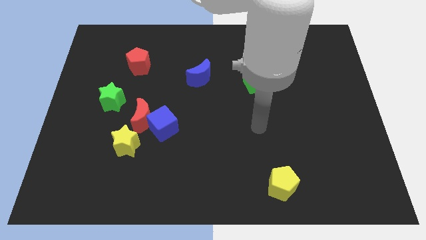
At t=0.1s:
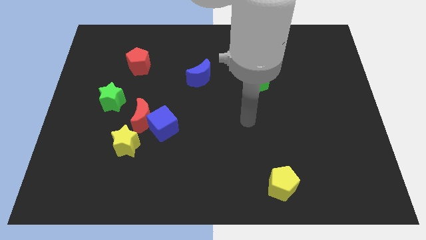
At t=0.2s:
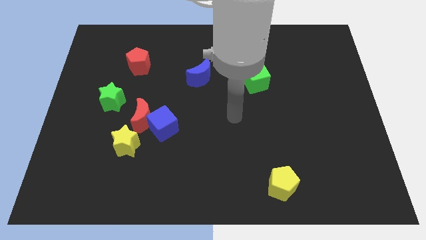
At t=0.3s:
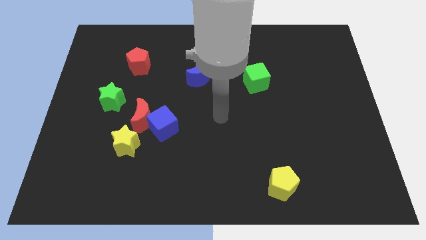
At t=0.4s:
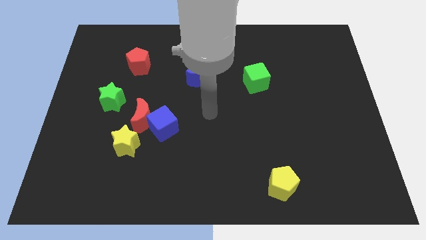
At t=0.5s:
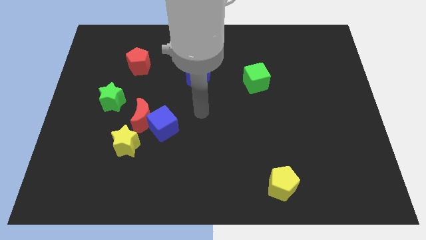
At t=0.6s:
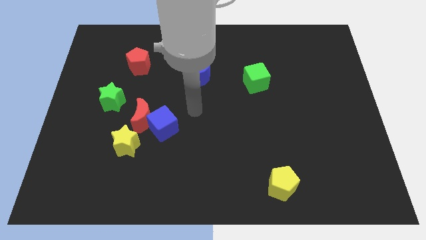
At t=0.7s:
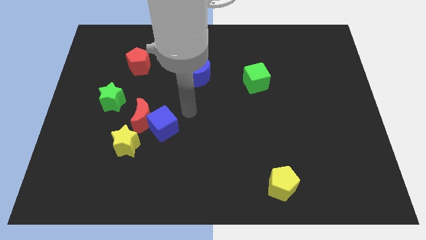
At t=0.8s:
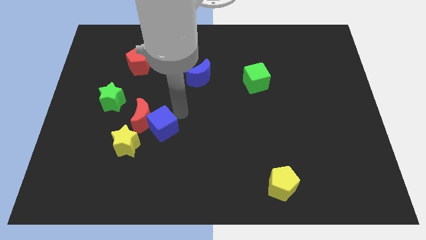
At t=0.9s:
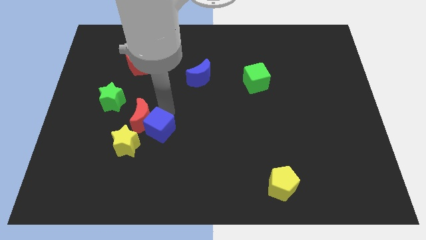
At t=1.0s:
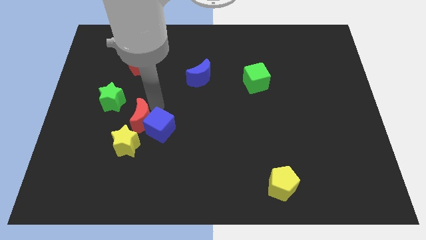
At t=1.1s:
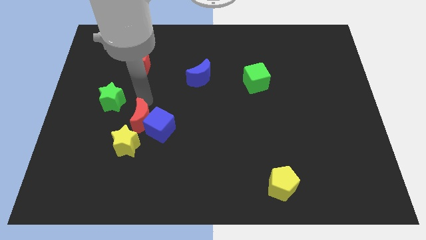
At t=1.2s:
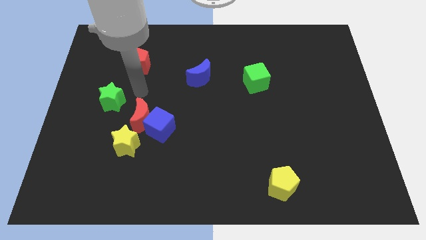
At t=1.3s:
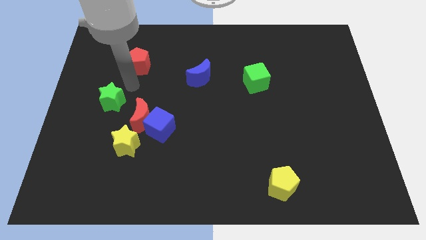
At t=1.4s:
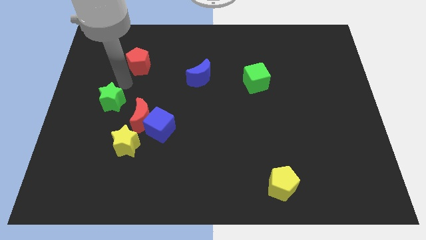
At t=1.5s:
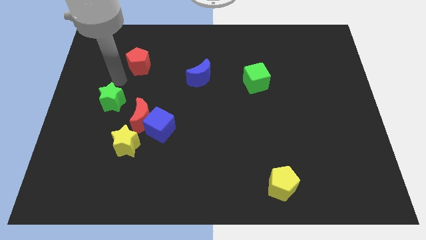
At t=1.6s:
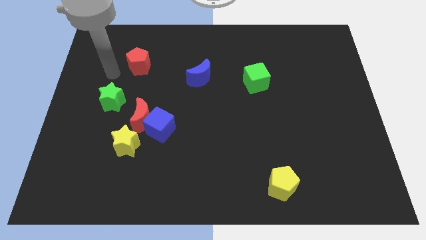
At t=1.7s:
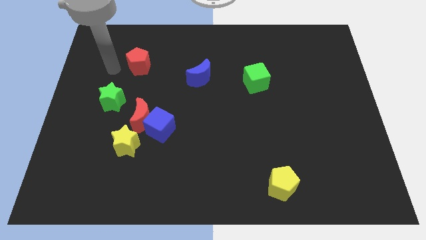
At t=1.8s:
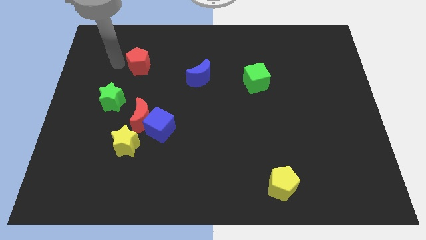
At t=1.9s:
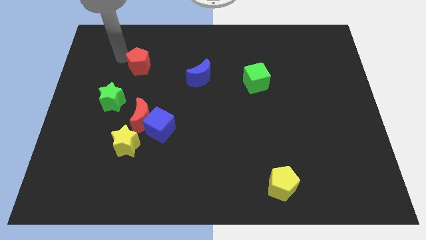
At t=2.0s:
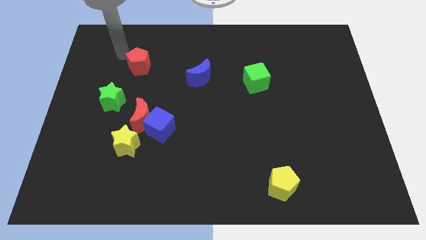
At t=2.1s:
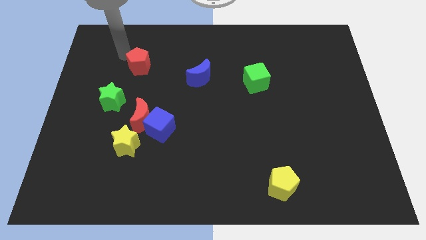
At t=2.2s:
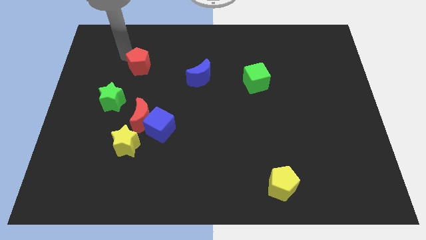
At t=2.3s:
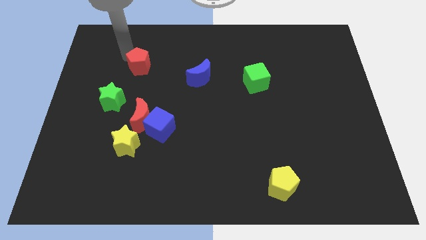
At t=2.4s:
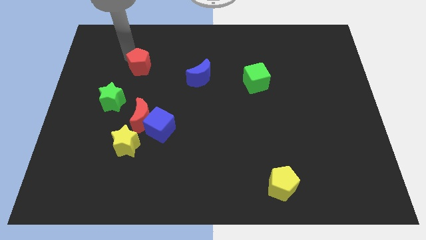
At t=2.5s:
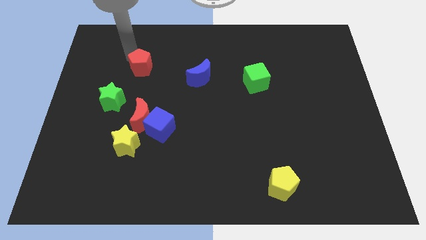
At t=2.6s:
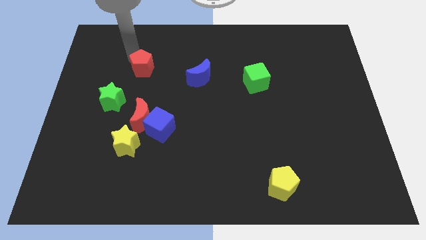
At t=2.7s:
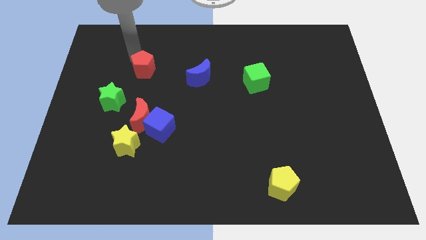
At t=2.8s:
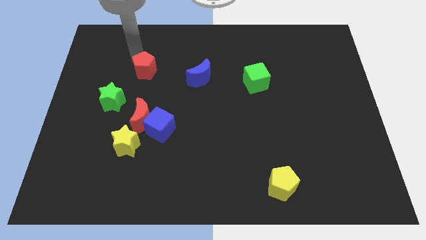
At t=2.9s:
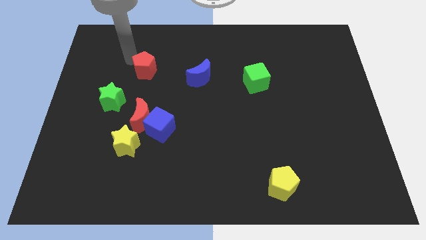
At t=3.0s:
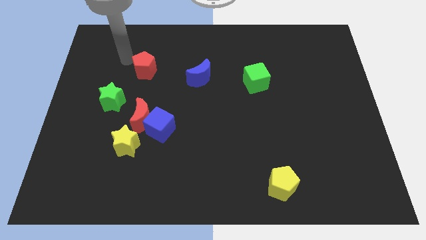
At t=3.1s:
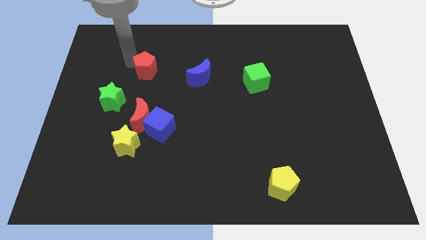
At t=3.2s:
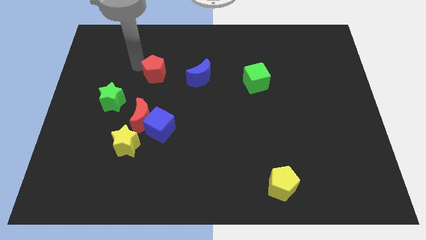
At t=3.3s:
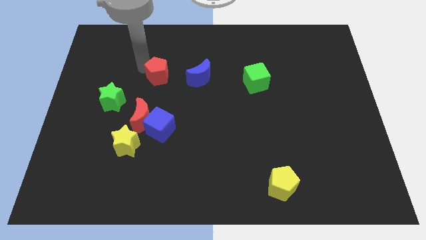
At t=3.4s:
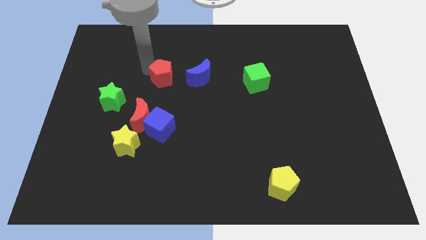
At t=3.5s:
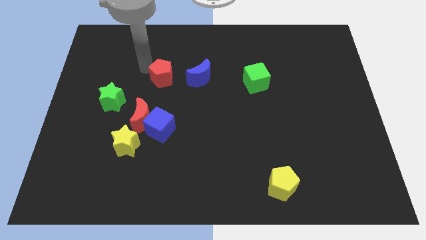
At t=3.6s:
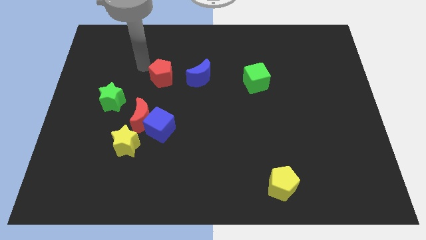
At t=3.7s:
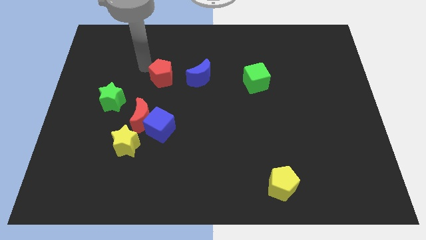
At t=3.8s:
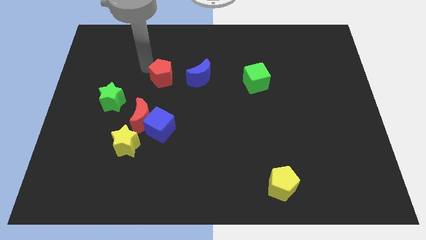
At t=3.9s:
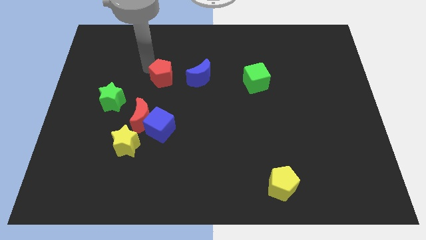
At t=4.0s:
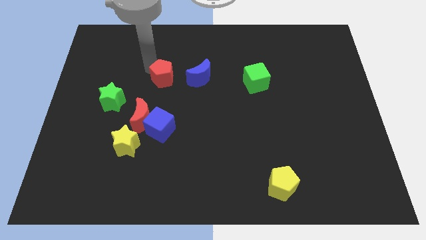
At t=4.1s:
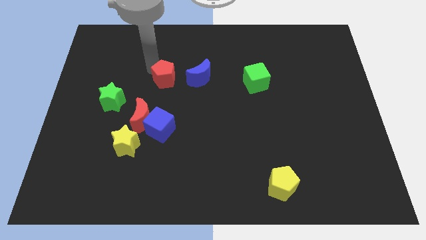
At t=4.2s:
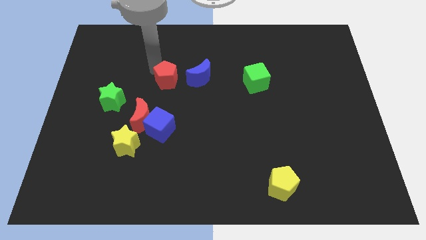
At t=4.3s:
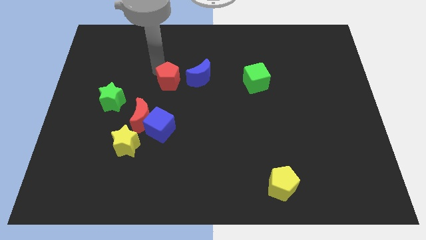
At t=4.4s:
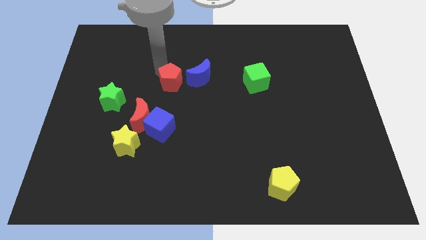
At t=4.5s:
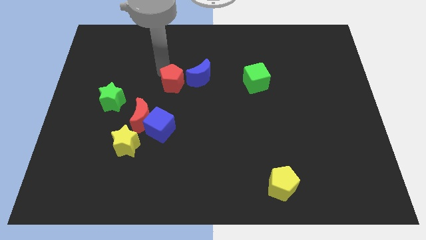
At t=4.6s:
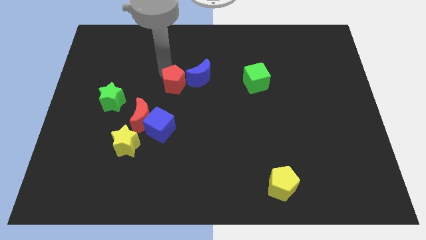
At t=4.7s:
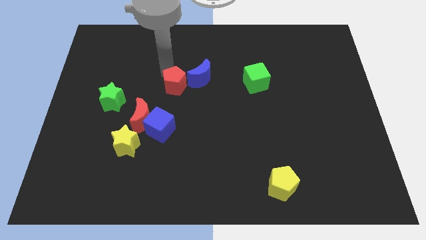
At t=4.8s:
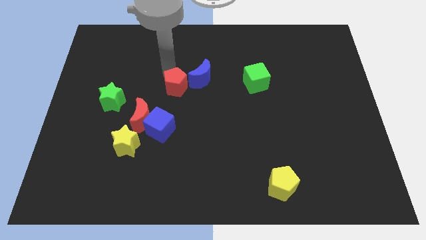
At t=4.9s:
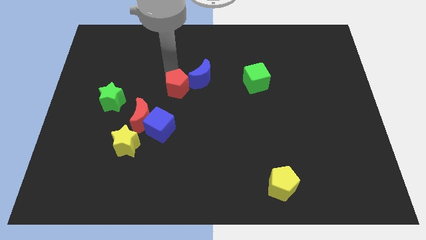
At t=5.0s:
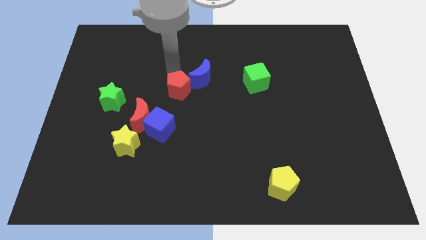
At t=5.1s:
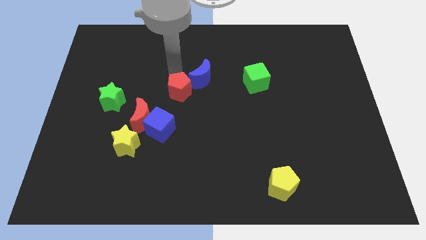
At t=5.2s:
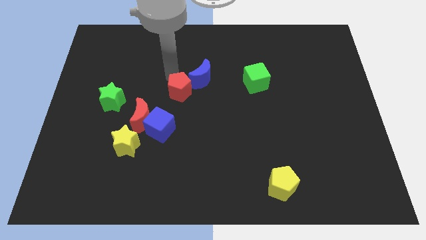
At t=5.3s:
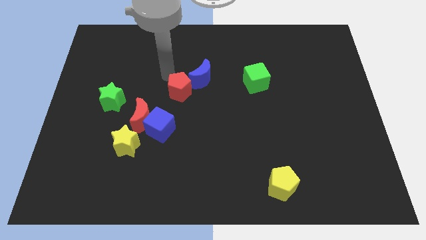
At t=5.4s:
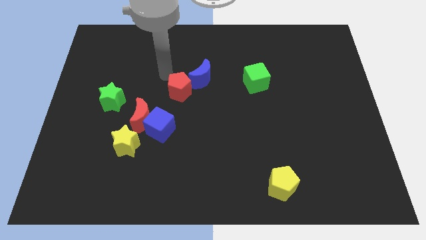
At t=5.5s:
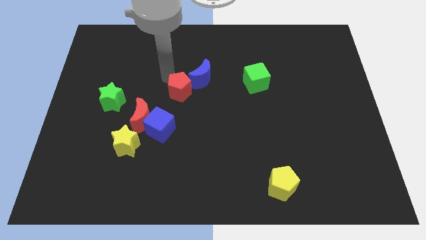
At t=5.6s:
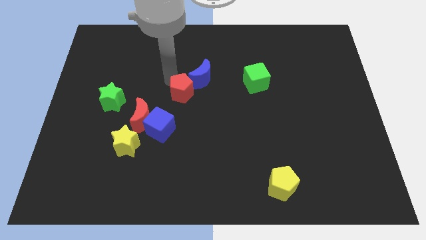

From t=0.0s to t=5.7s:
put the red pentagon to the bottom side of the blue moon

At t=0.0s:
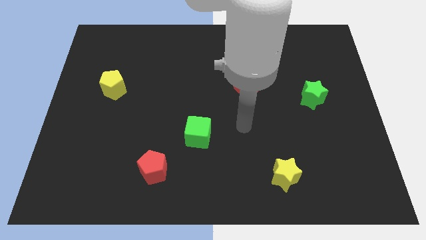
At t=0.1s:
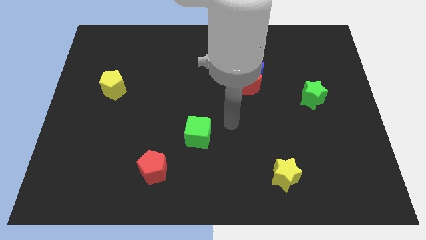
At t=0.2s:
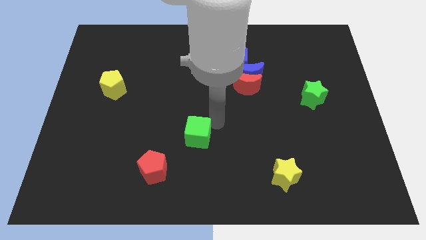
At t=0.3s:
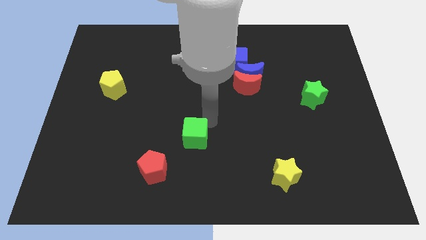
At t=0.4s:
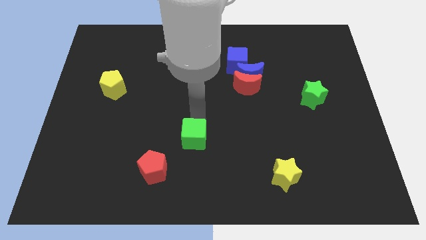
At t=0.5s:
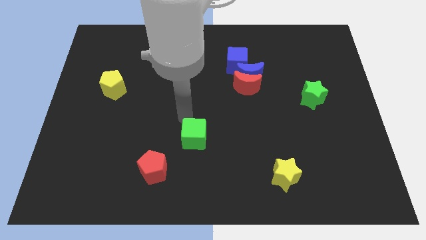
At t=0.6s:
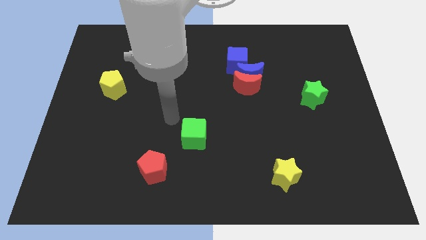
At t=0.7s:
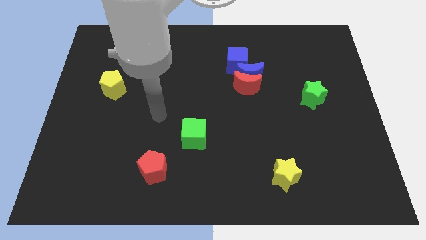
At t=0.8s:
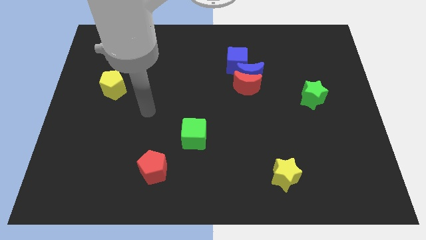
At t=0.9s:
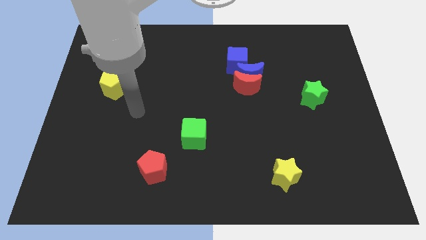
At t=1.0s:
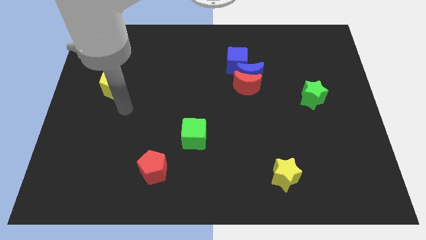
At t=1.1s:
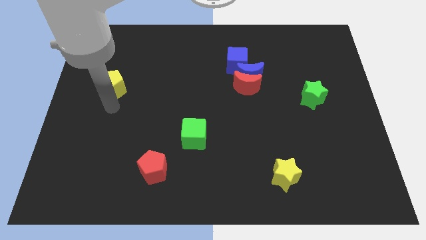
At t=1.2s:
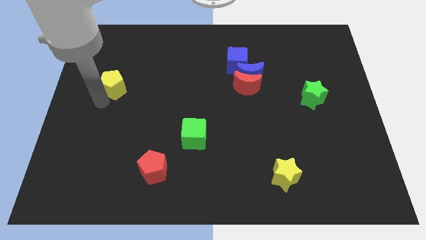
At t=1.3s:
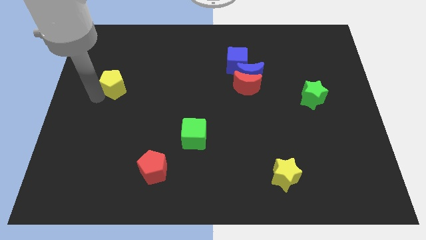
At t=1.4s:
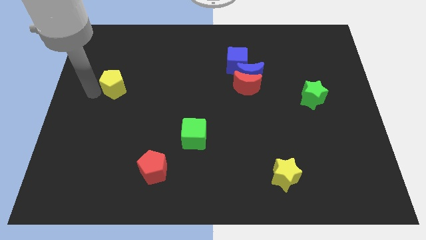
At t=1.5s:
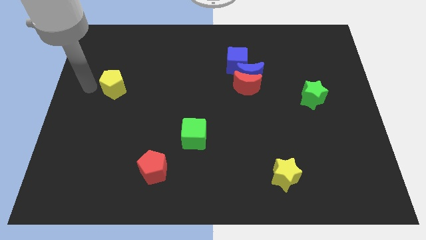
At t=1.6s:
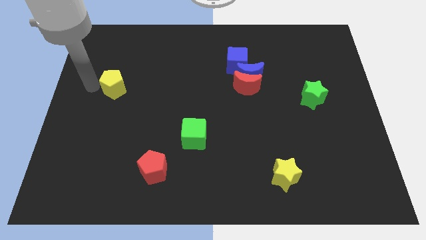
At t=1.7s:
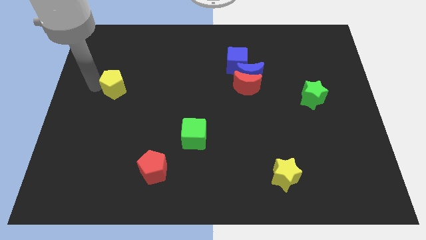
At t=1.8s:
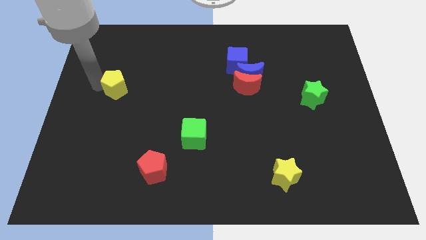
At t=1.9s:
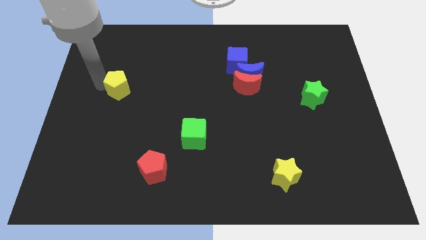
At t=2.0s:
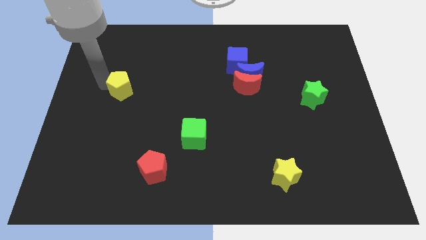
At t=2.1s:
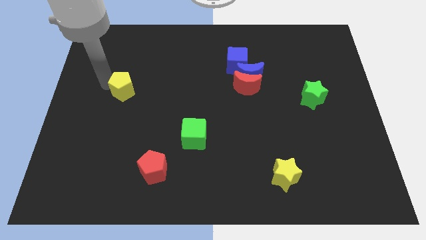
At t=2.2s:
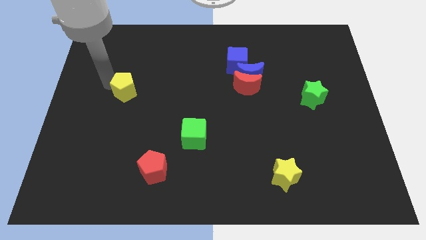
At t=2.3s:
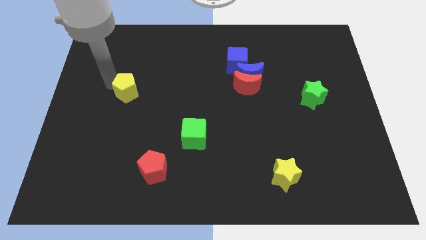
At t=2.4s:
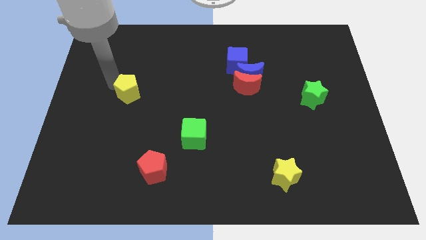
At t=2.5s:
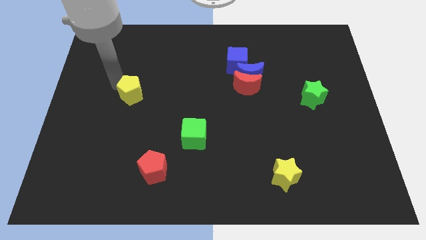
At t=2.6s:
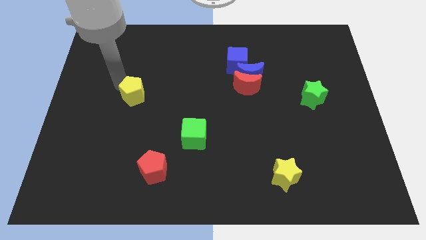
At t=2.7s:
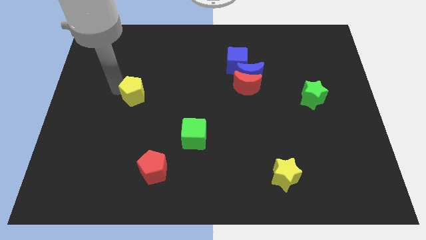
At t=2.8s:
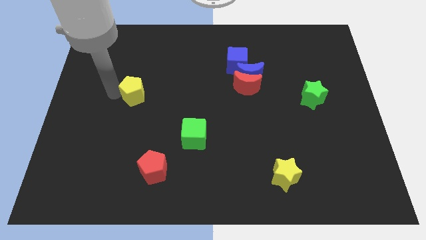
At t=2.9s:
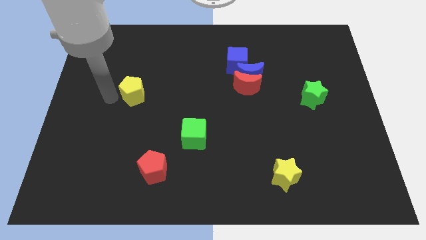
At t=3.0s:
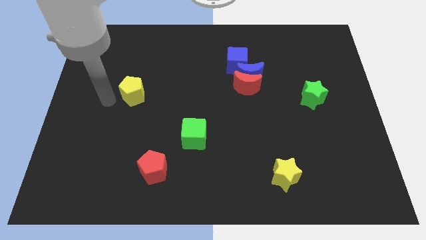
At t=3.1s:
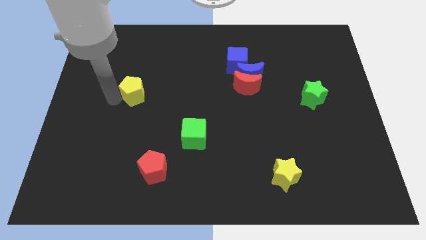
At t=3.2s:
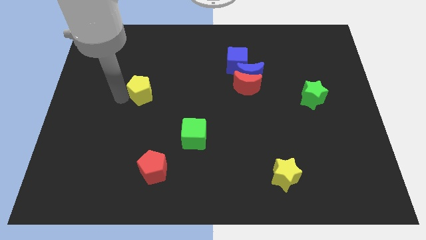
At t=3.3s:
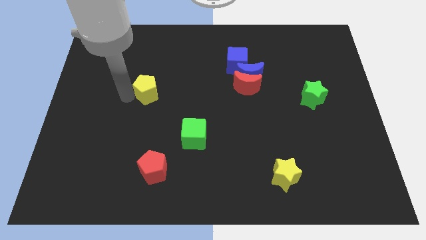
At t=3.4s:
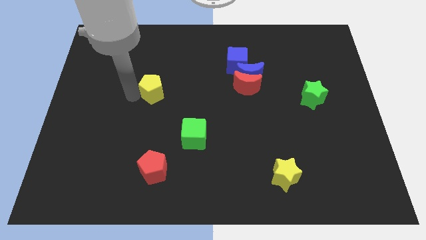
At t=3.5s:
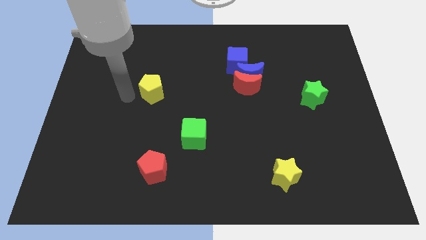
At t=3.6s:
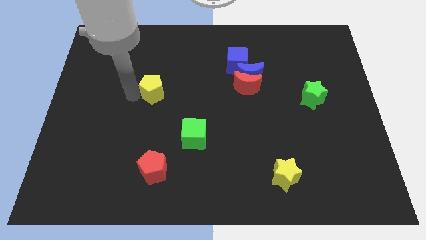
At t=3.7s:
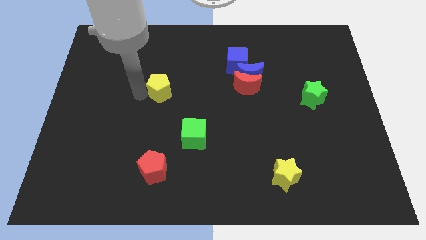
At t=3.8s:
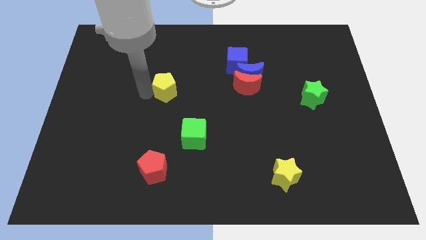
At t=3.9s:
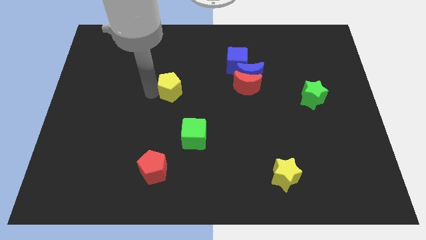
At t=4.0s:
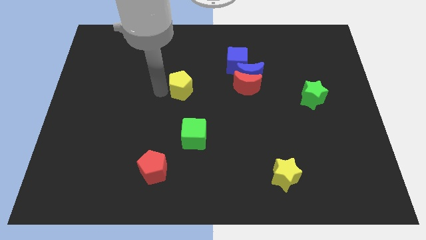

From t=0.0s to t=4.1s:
push the yellow pentagon to the left side of the red moon
